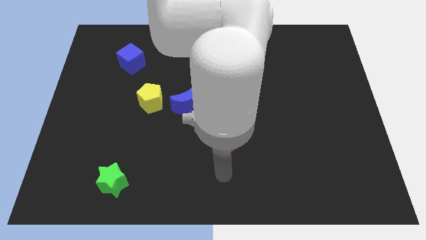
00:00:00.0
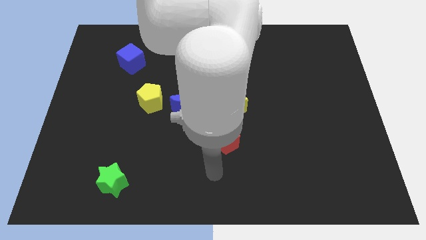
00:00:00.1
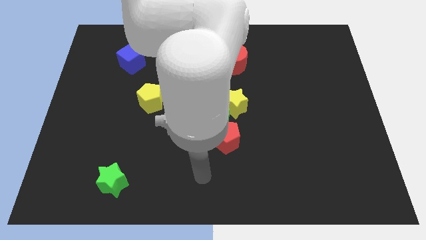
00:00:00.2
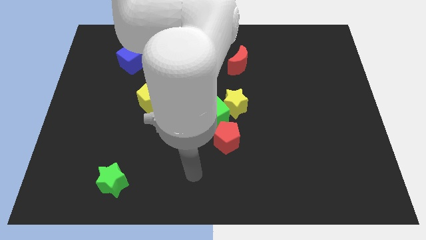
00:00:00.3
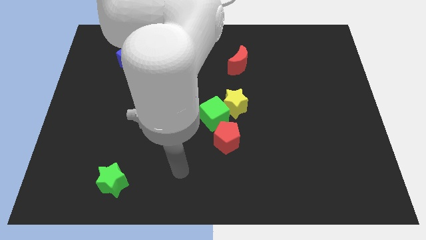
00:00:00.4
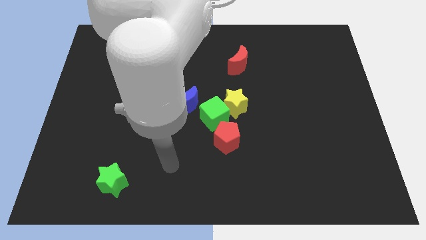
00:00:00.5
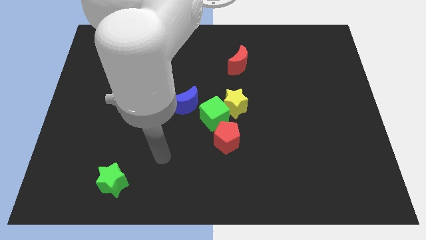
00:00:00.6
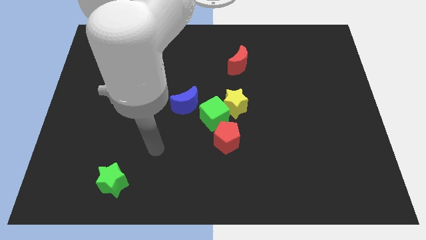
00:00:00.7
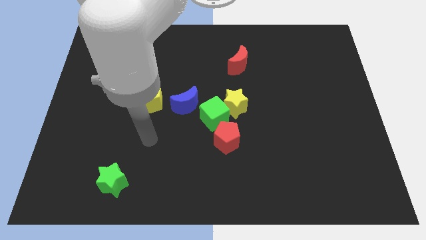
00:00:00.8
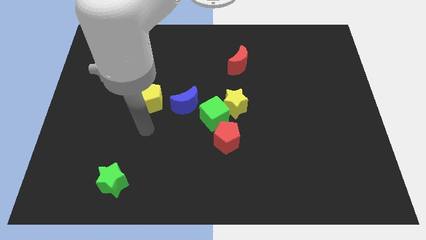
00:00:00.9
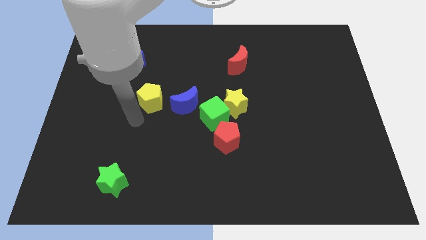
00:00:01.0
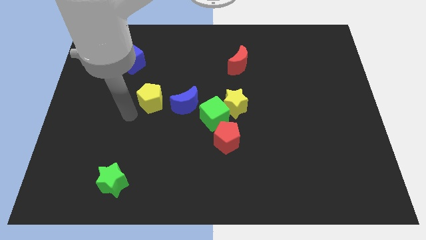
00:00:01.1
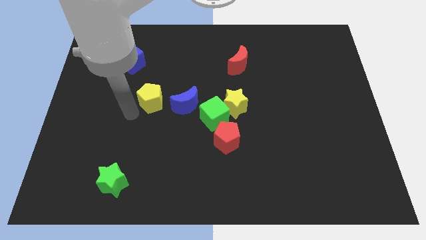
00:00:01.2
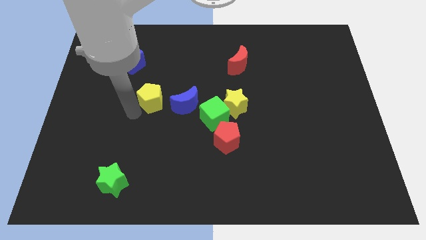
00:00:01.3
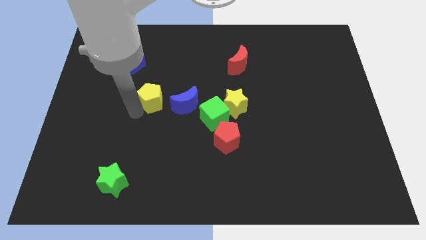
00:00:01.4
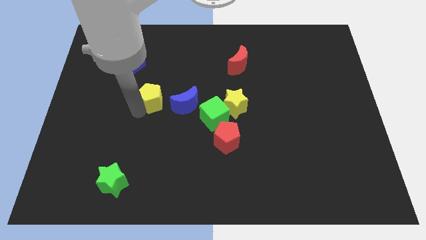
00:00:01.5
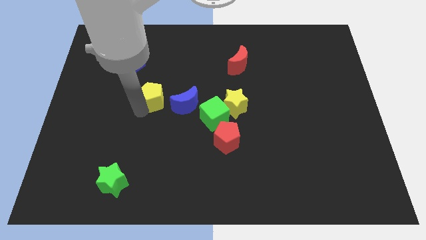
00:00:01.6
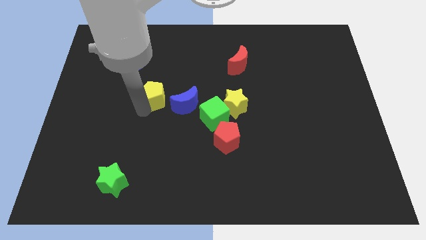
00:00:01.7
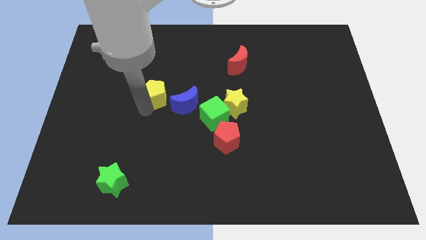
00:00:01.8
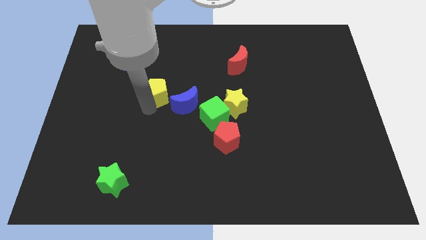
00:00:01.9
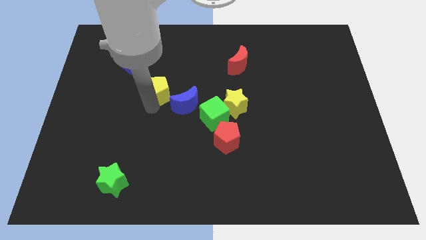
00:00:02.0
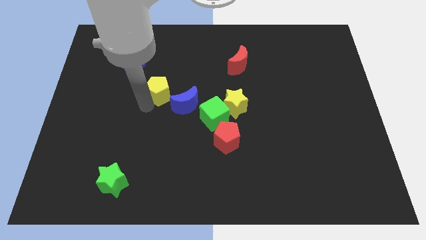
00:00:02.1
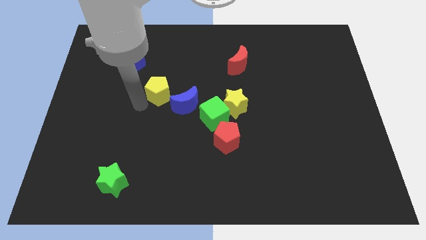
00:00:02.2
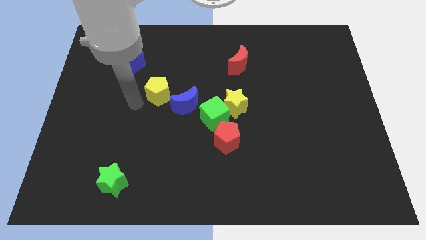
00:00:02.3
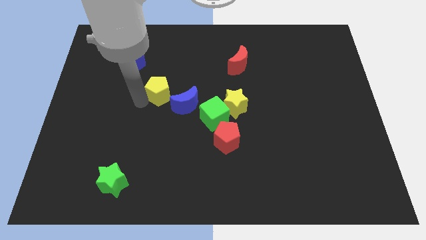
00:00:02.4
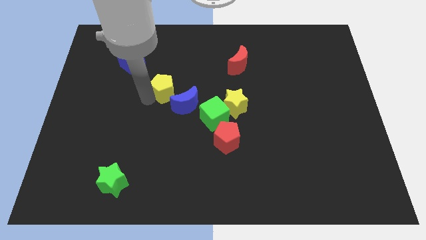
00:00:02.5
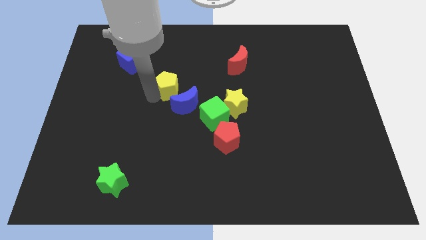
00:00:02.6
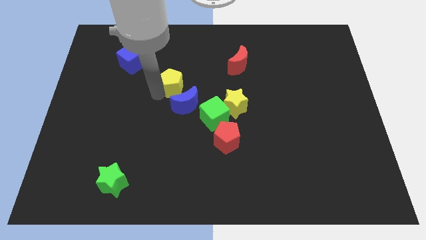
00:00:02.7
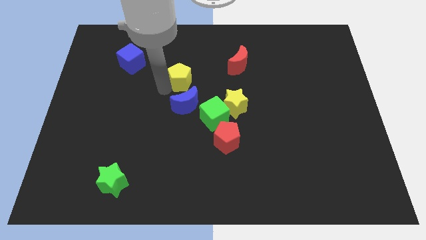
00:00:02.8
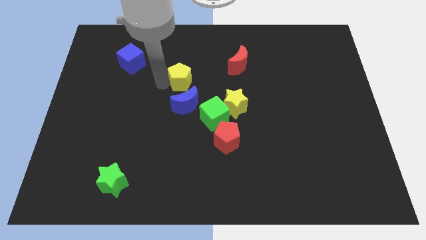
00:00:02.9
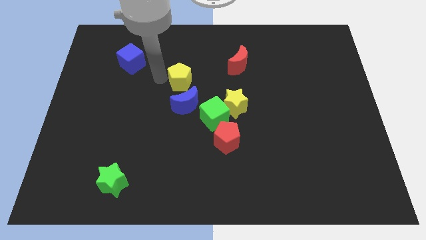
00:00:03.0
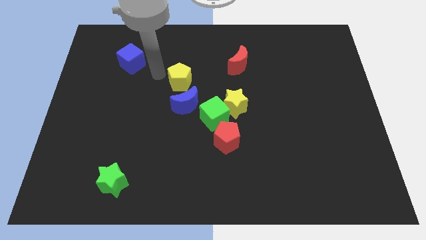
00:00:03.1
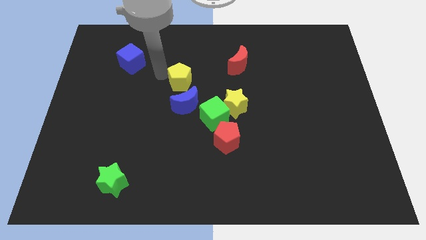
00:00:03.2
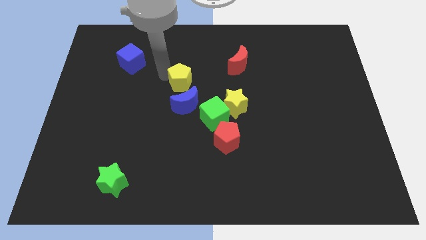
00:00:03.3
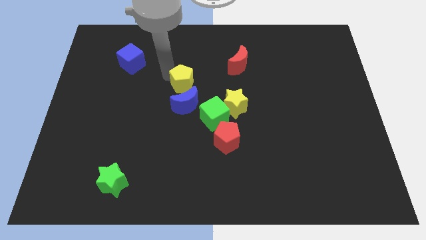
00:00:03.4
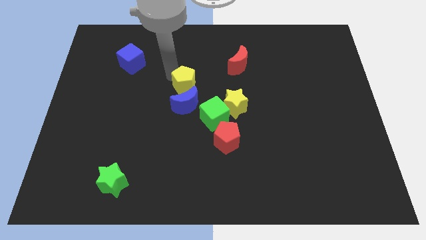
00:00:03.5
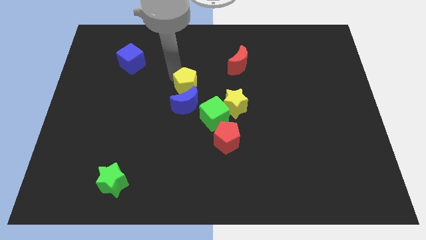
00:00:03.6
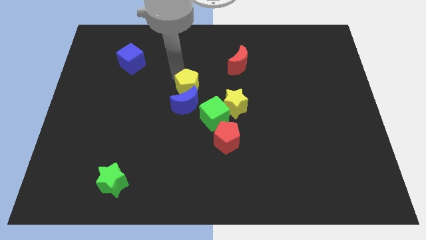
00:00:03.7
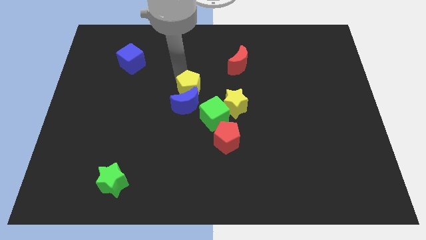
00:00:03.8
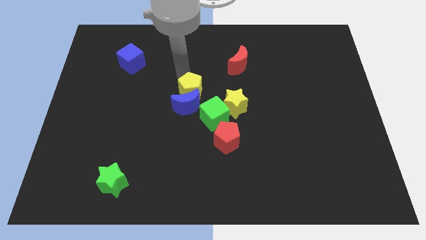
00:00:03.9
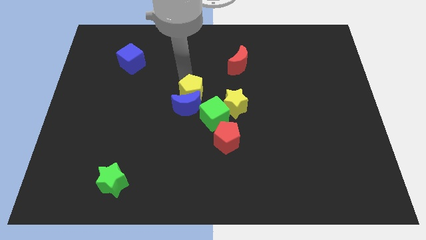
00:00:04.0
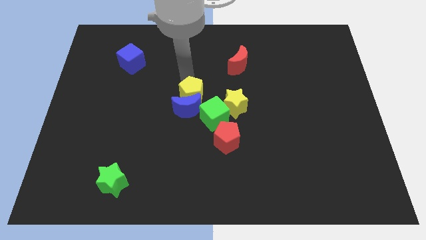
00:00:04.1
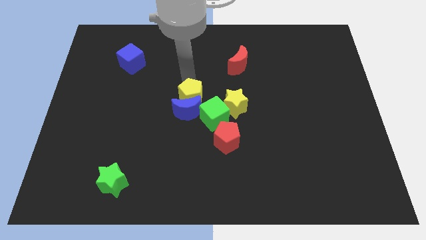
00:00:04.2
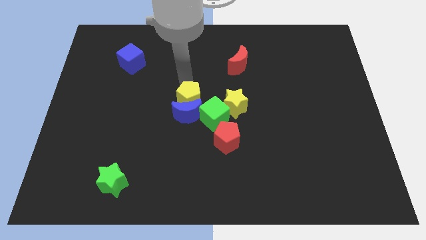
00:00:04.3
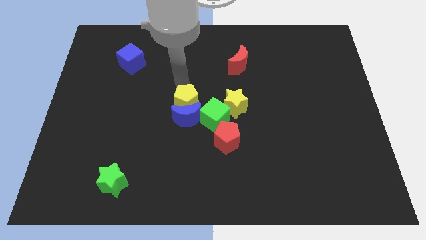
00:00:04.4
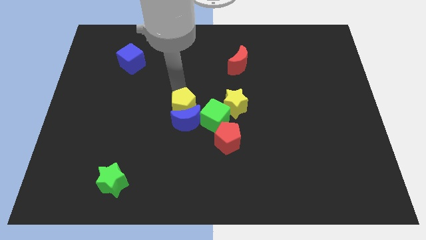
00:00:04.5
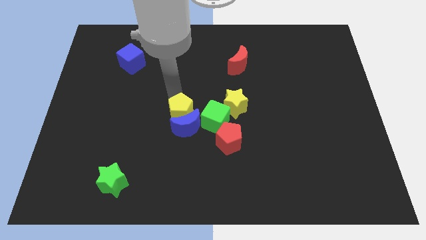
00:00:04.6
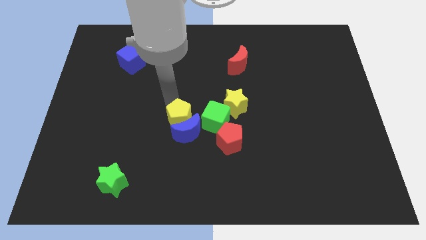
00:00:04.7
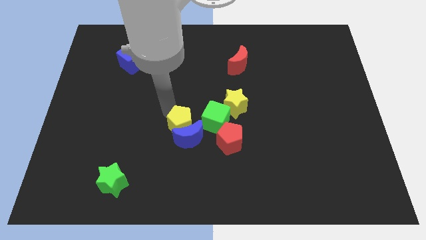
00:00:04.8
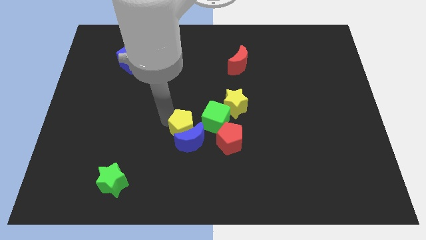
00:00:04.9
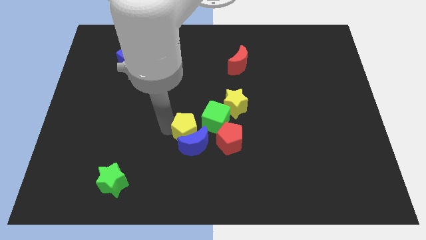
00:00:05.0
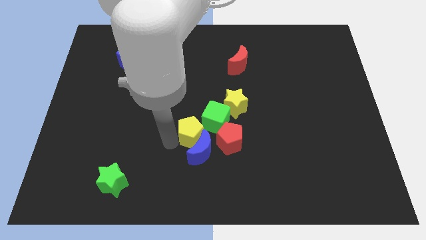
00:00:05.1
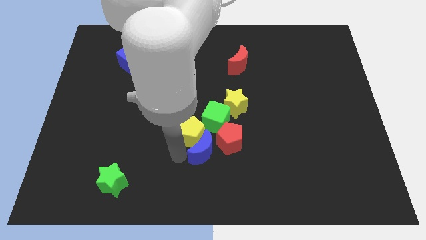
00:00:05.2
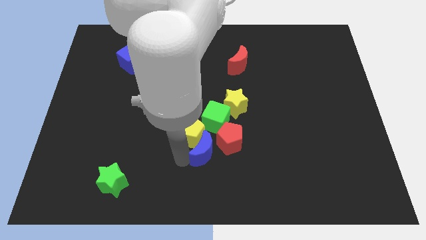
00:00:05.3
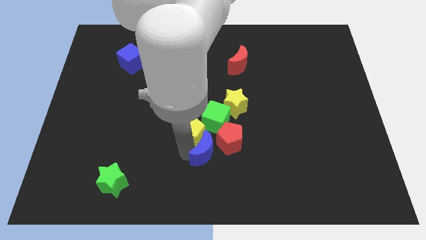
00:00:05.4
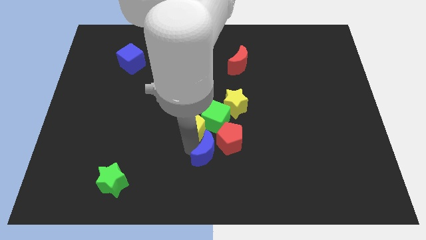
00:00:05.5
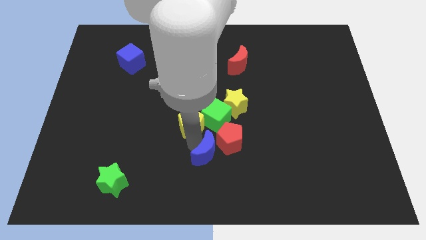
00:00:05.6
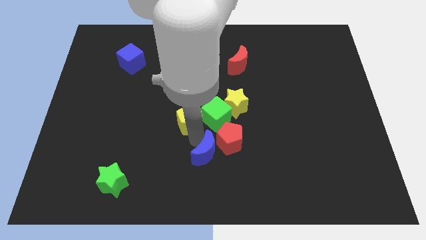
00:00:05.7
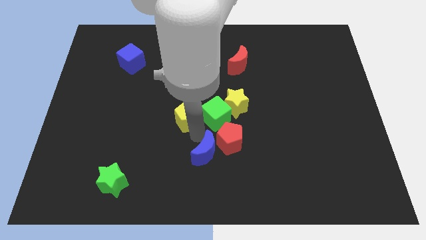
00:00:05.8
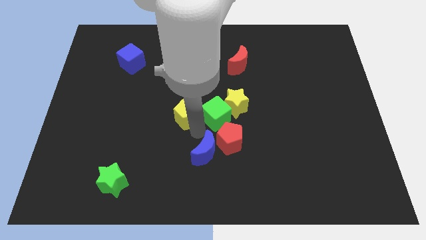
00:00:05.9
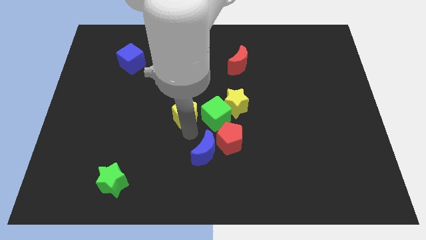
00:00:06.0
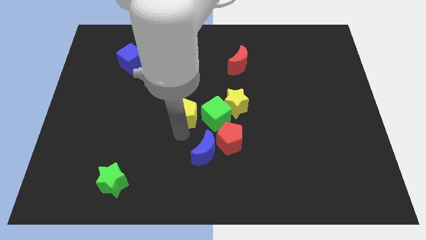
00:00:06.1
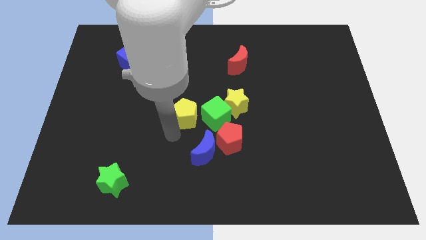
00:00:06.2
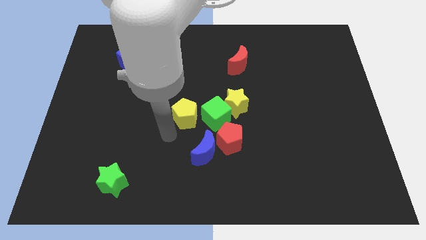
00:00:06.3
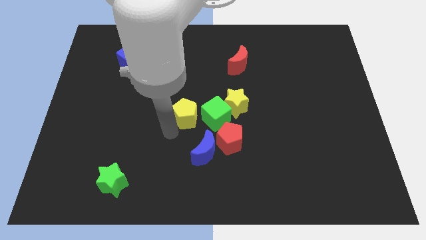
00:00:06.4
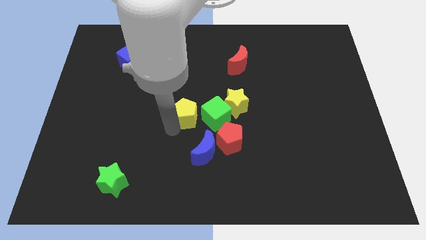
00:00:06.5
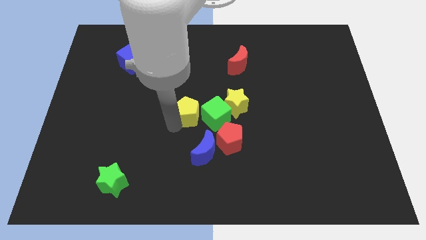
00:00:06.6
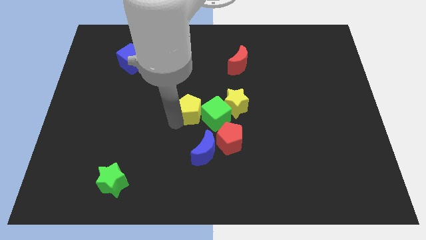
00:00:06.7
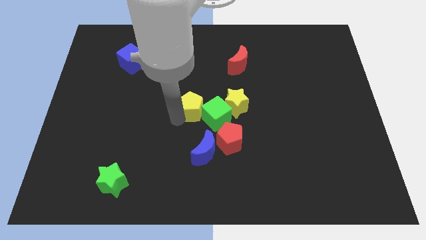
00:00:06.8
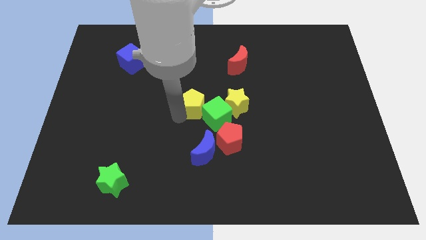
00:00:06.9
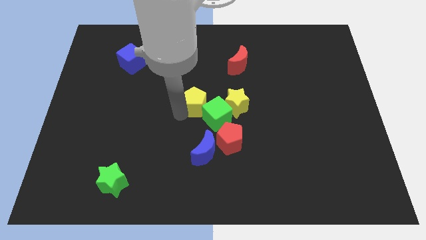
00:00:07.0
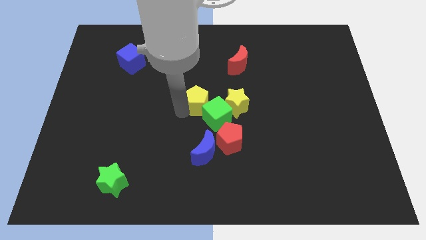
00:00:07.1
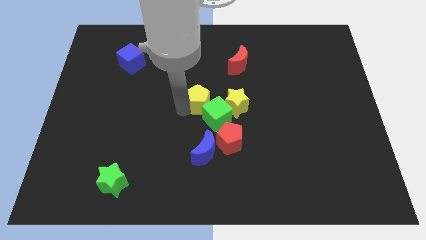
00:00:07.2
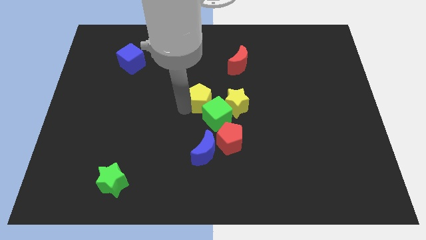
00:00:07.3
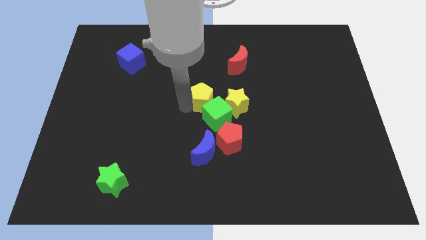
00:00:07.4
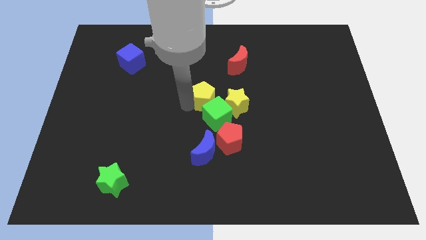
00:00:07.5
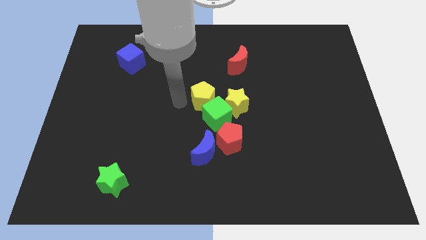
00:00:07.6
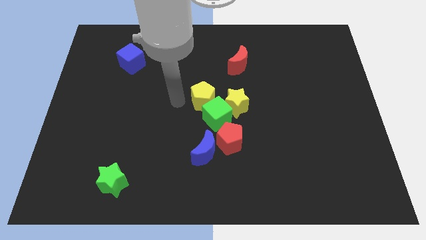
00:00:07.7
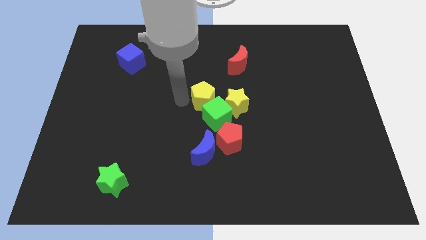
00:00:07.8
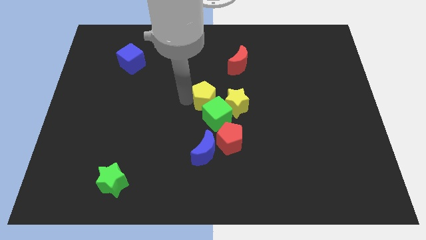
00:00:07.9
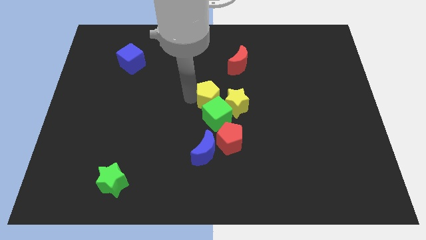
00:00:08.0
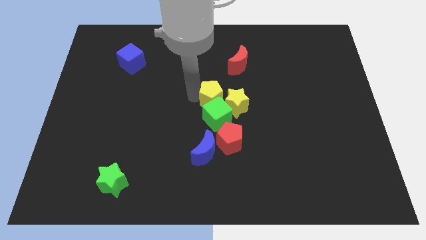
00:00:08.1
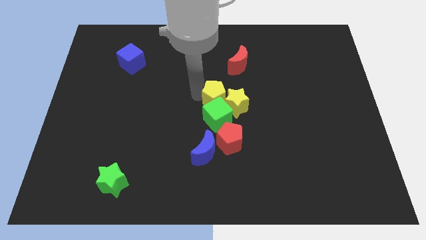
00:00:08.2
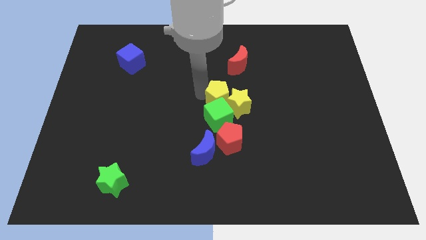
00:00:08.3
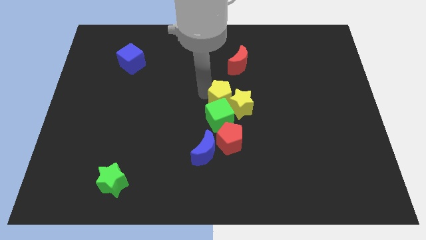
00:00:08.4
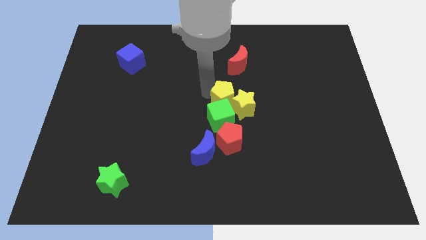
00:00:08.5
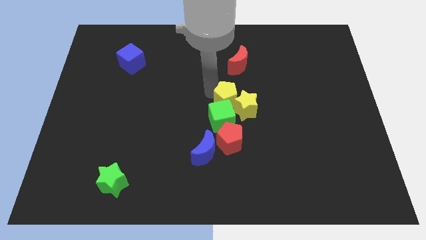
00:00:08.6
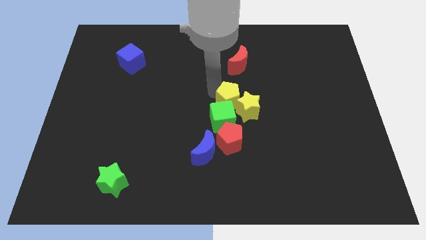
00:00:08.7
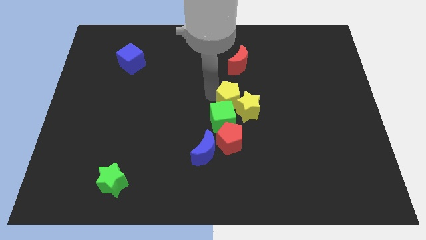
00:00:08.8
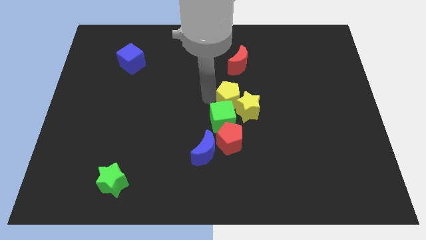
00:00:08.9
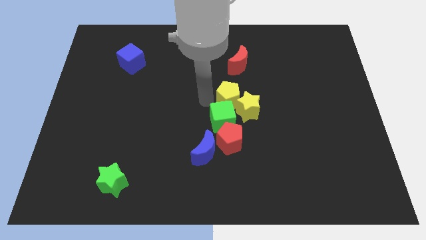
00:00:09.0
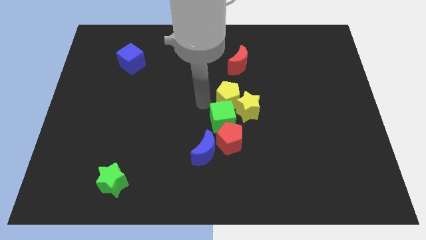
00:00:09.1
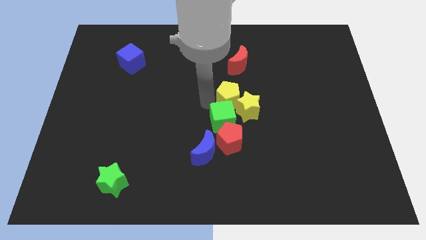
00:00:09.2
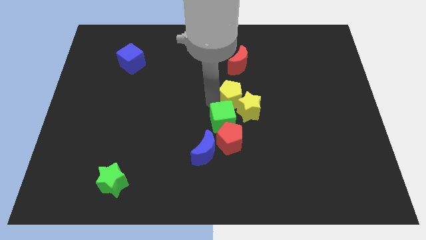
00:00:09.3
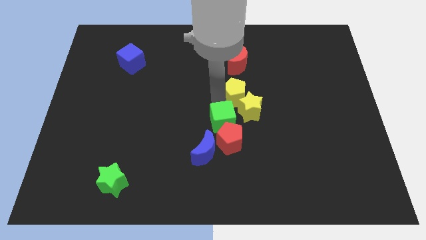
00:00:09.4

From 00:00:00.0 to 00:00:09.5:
move the yellow pentagon to the right
